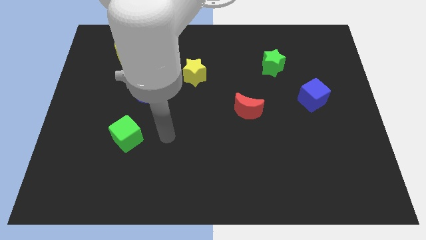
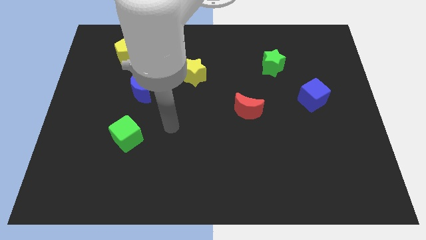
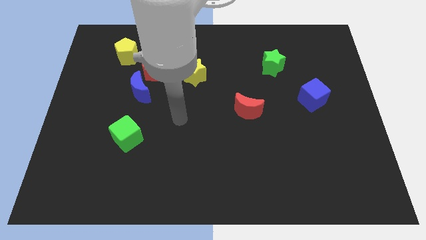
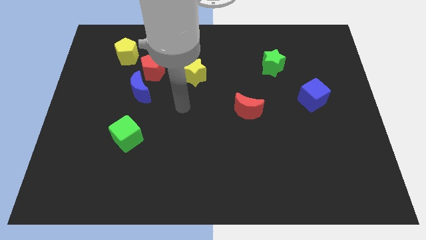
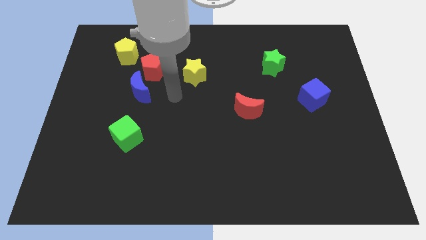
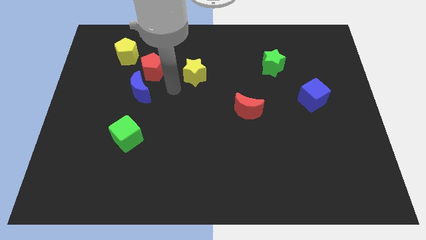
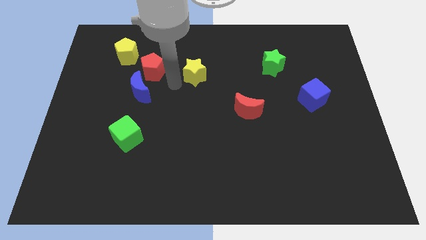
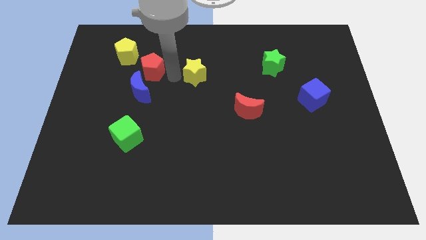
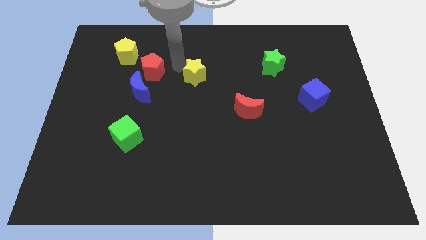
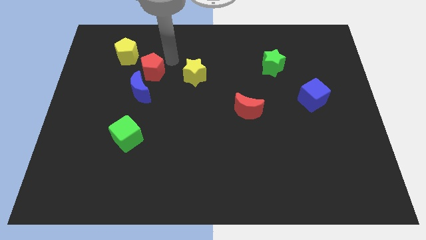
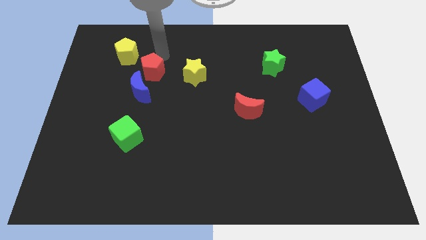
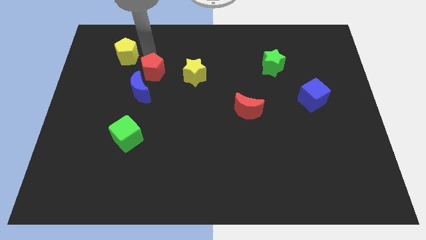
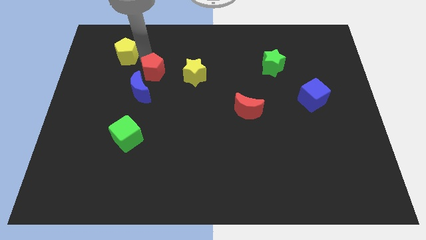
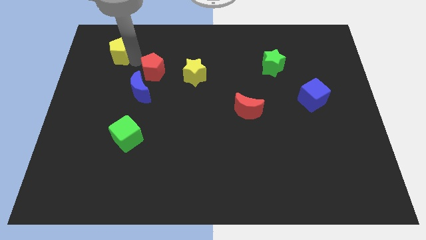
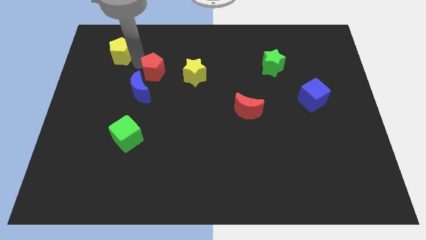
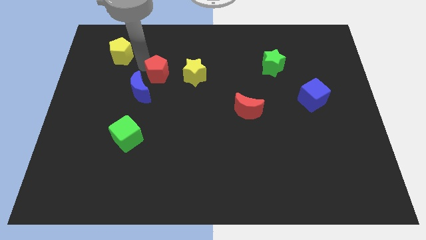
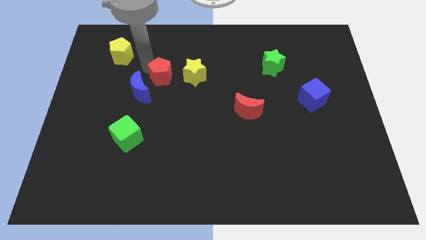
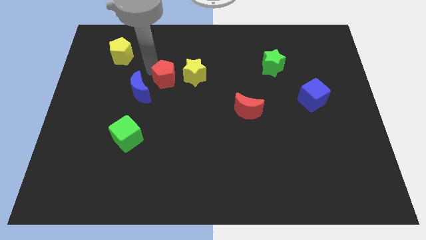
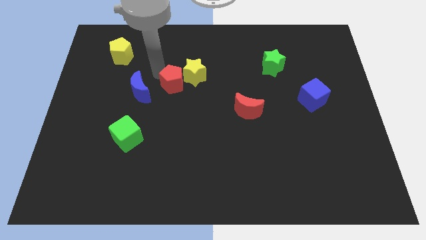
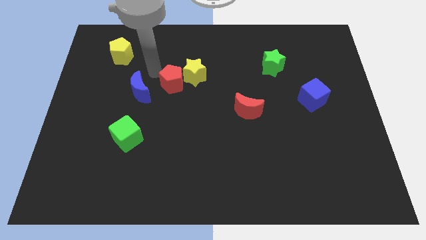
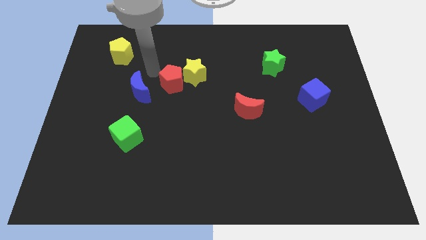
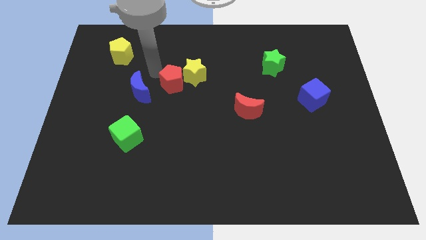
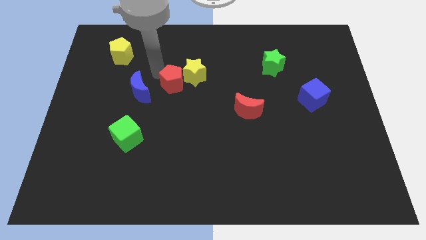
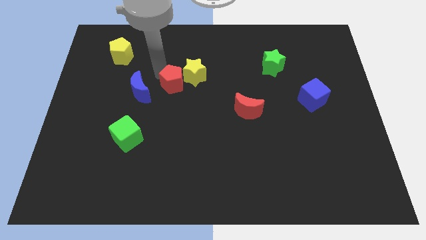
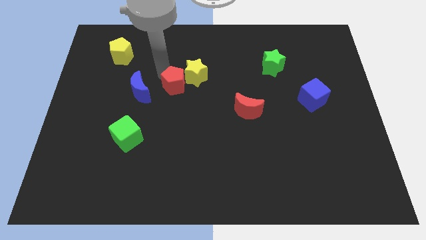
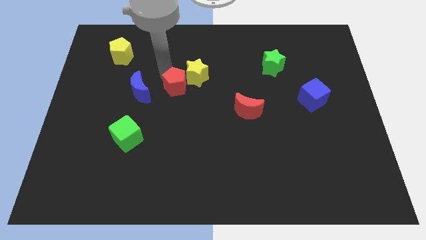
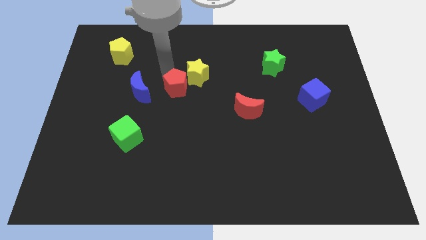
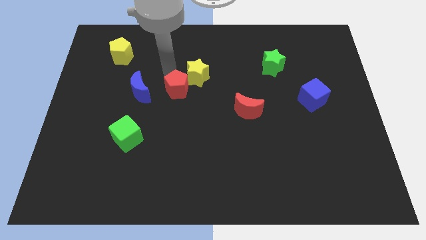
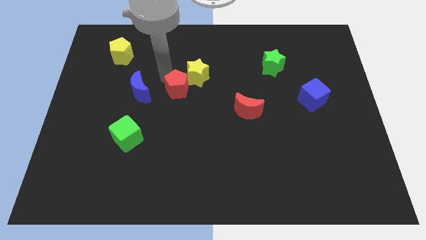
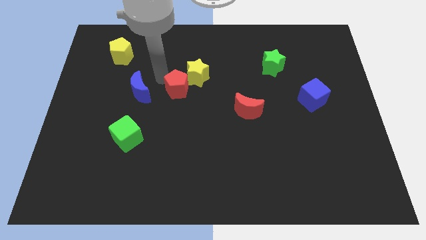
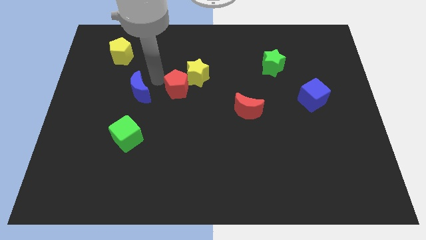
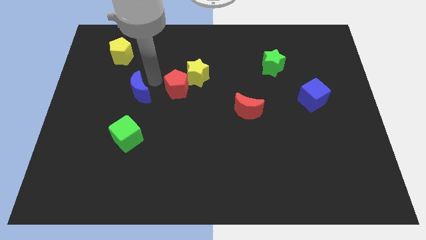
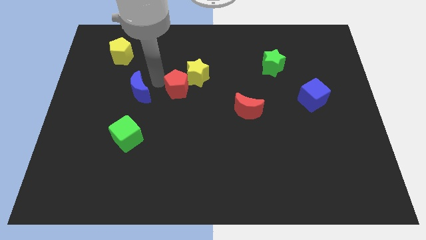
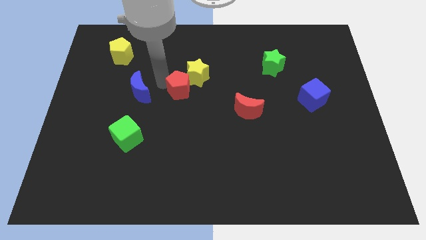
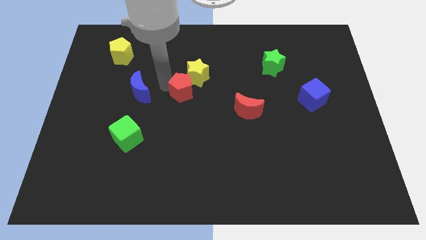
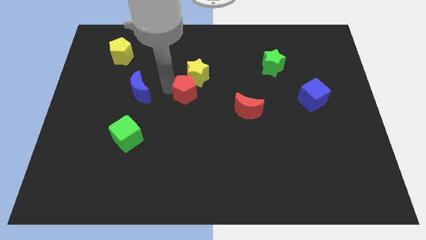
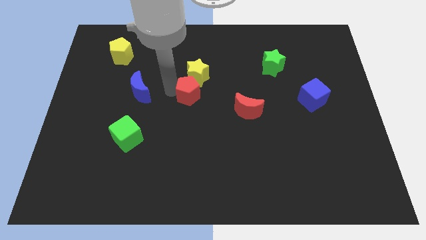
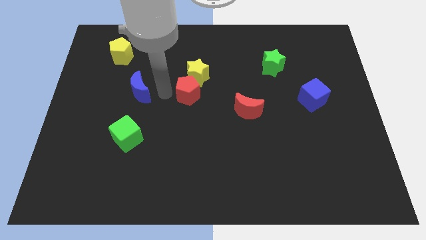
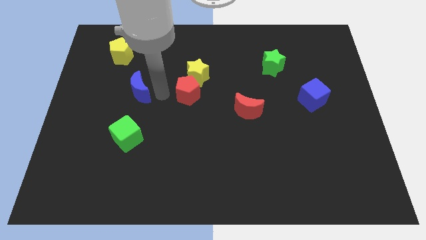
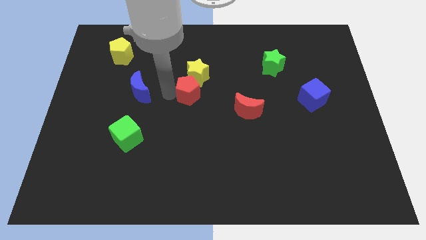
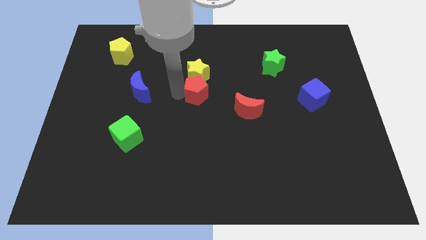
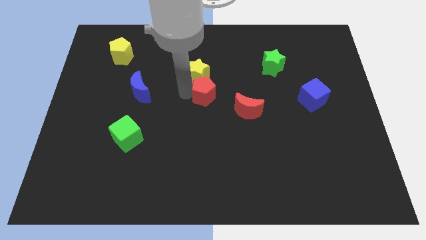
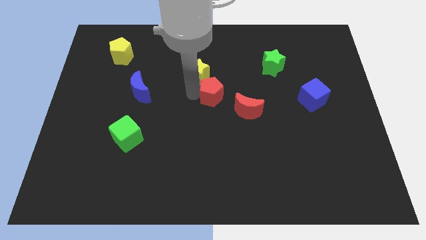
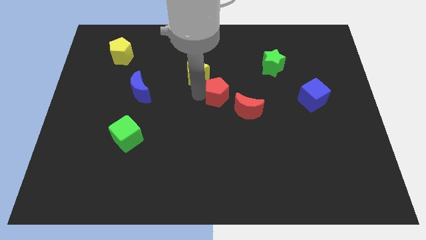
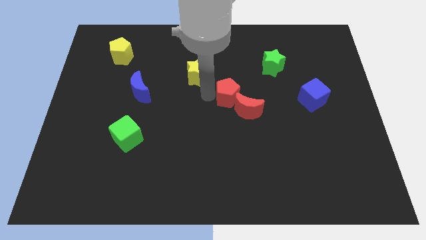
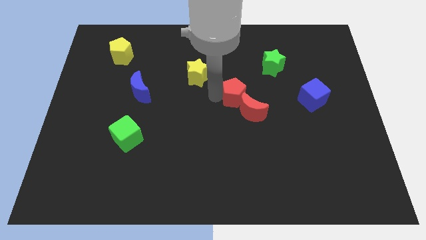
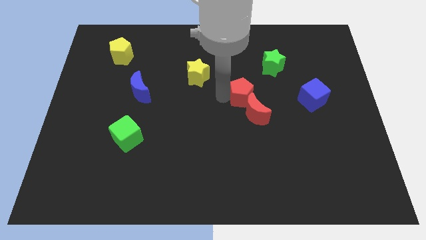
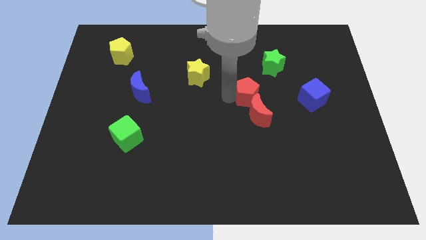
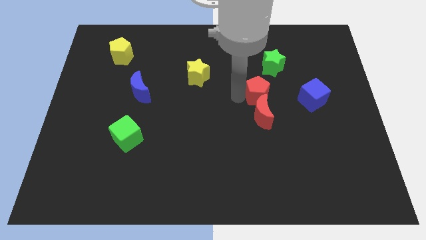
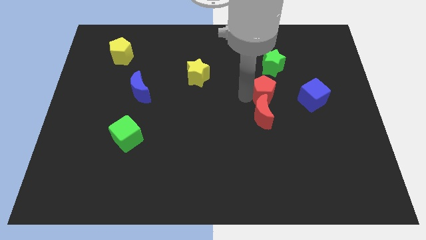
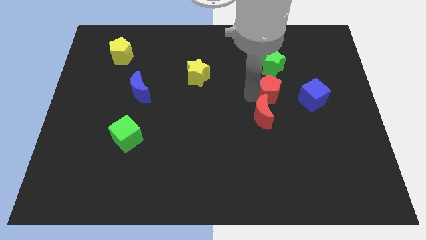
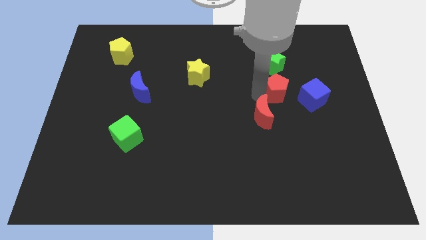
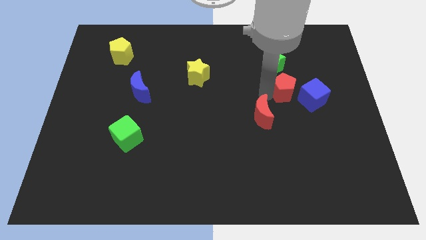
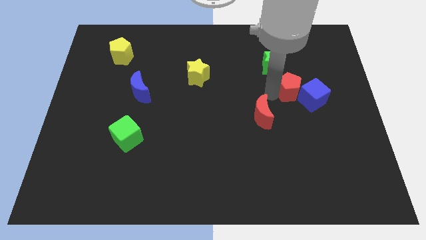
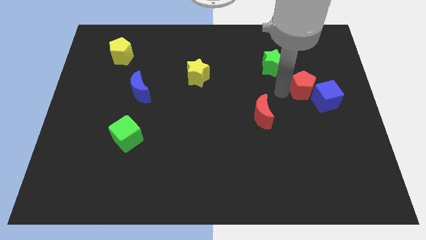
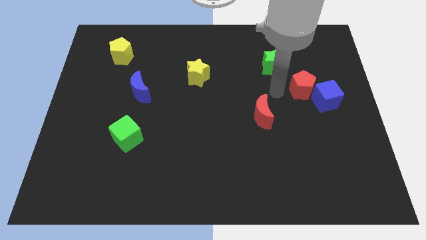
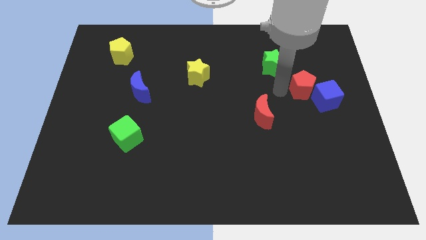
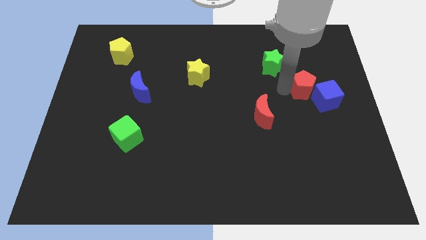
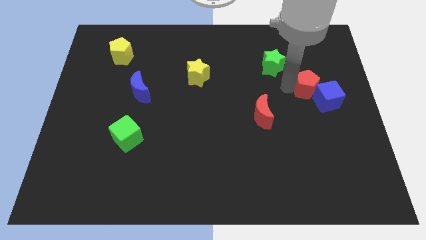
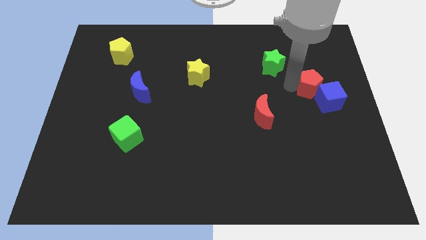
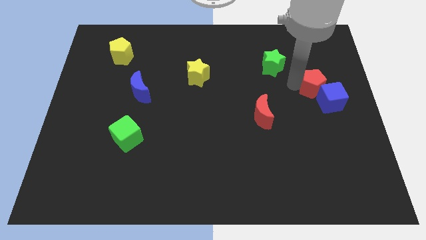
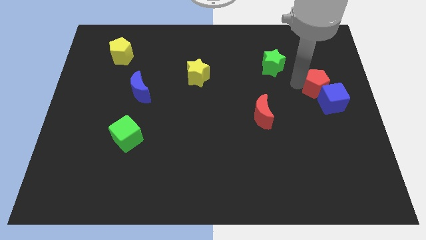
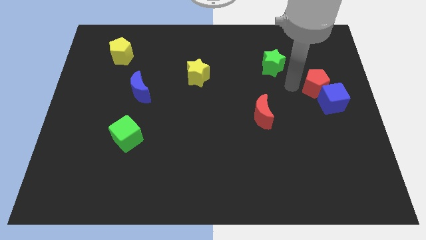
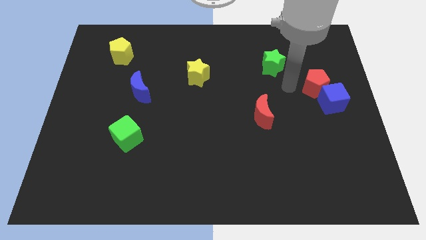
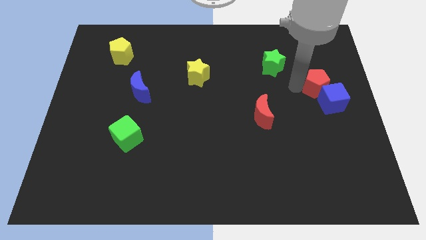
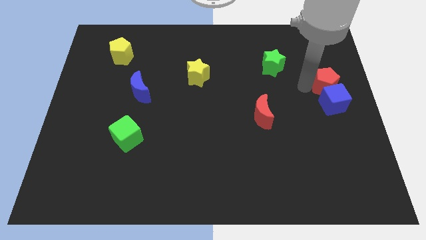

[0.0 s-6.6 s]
put the red pentagon diagonally up and to the right of the blue cube

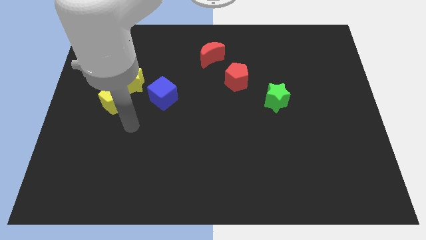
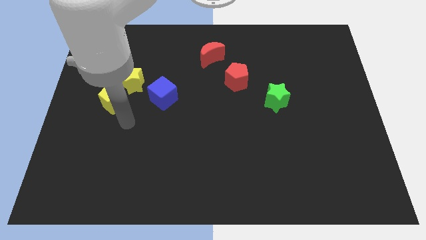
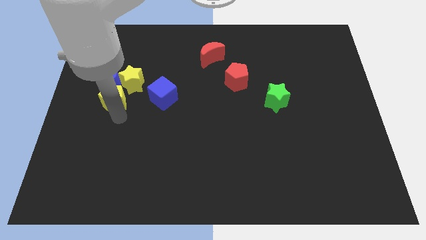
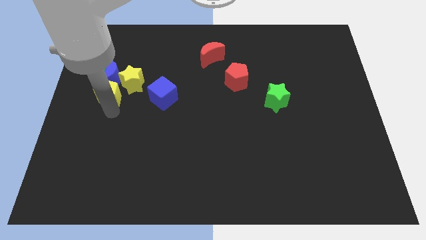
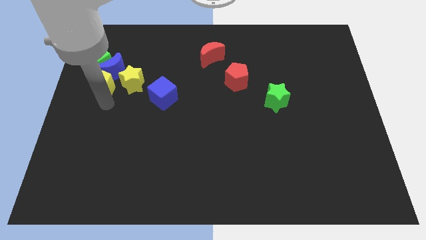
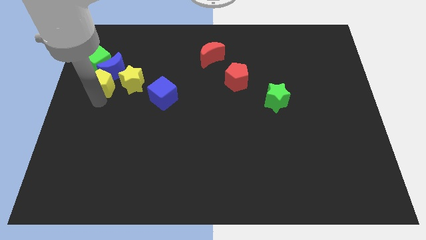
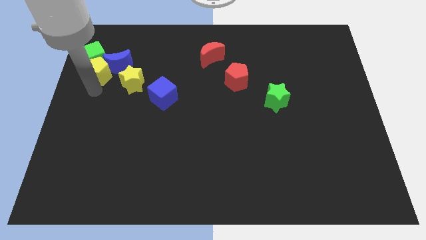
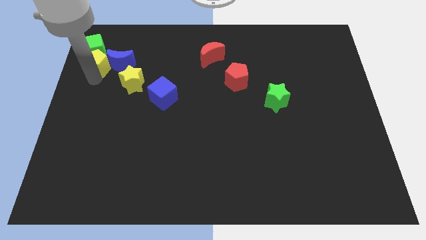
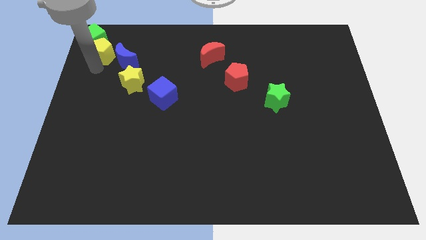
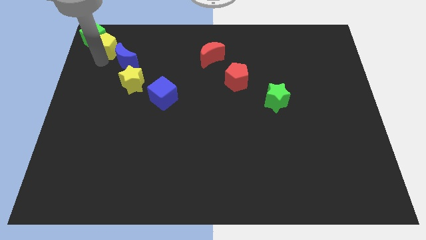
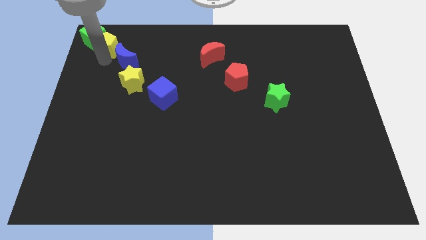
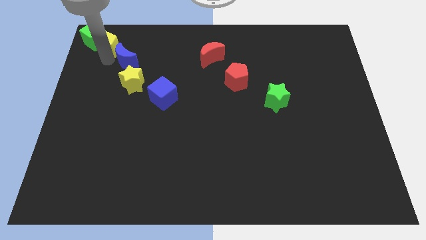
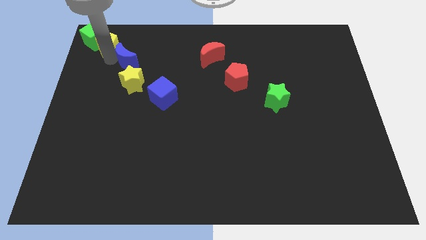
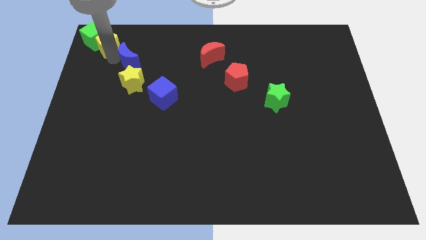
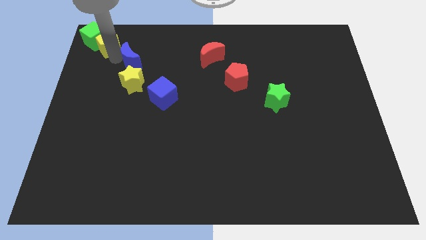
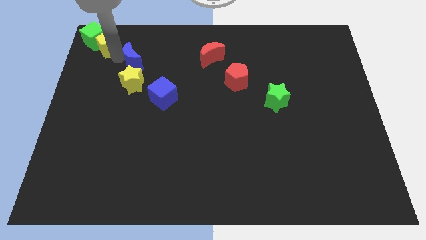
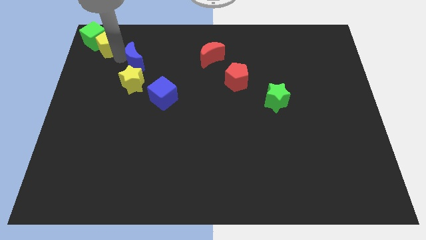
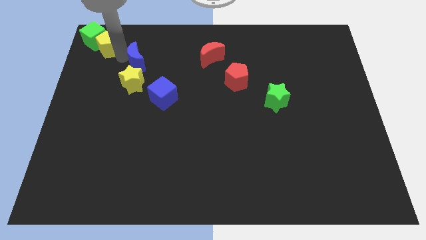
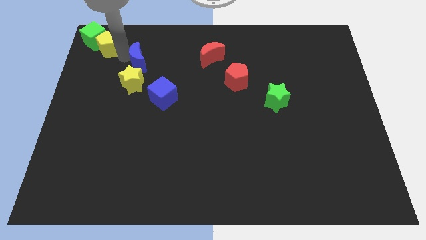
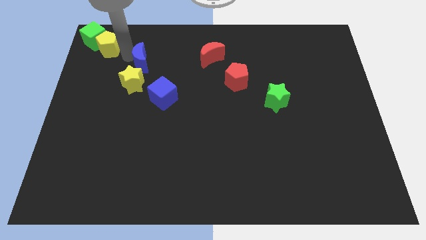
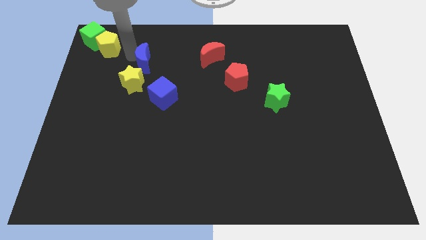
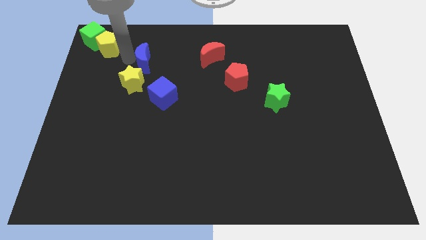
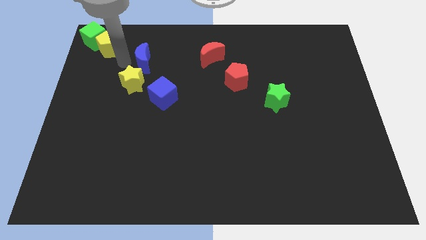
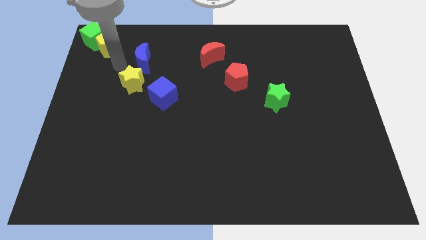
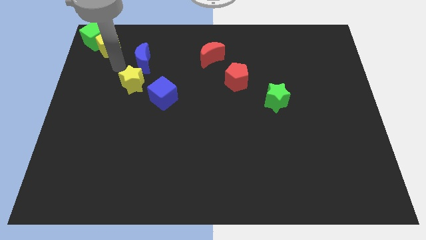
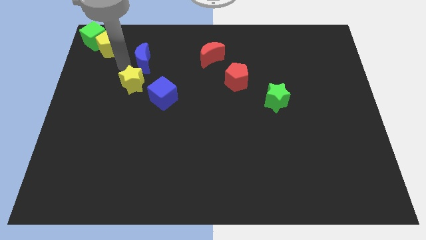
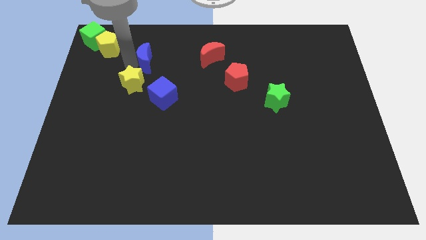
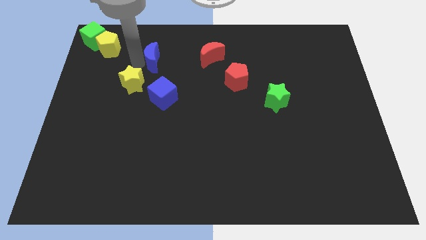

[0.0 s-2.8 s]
put the blue moon to the left of the red moon
